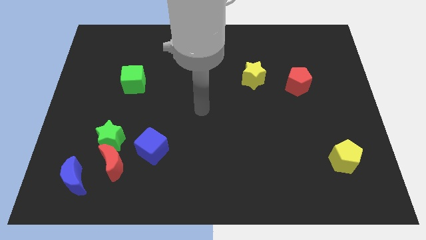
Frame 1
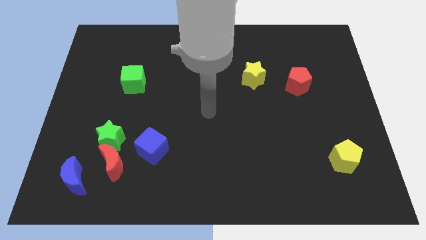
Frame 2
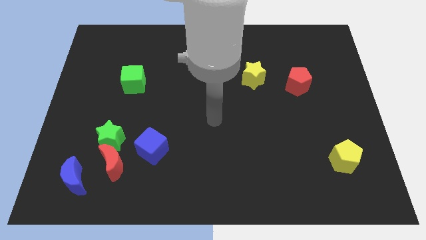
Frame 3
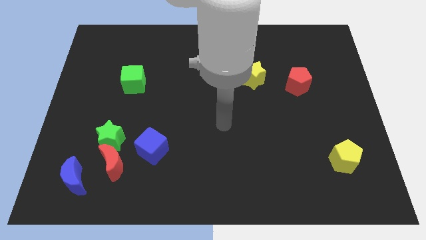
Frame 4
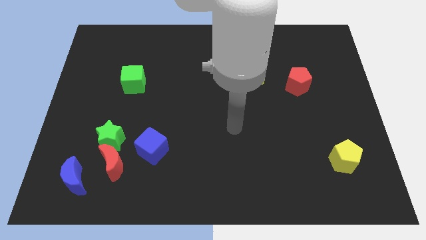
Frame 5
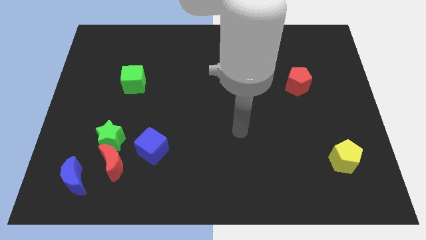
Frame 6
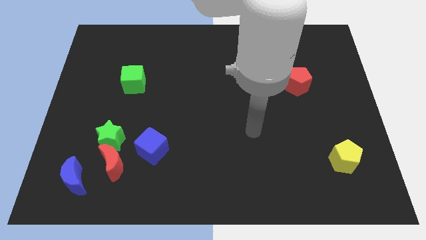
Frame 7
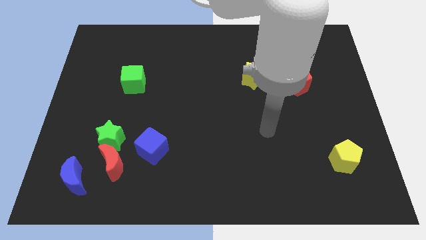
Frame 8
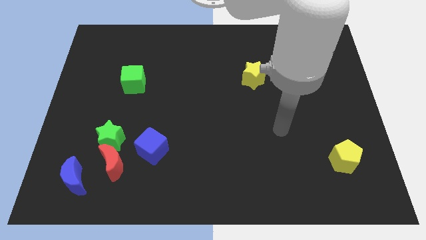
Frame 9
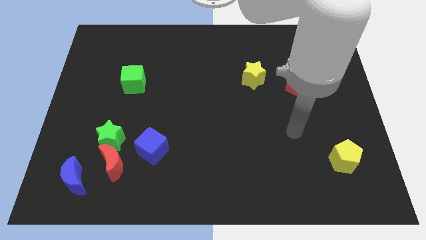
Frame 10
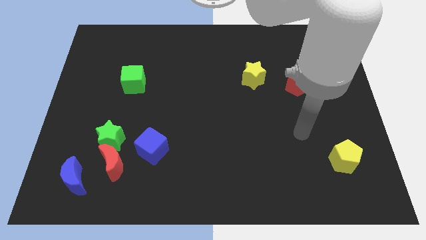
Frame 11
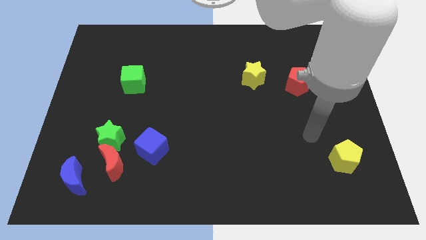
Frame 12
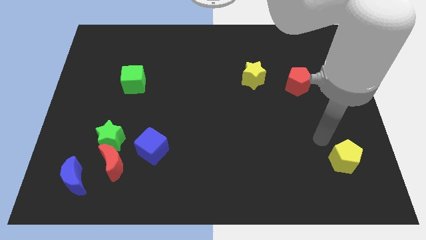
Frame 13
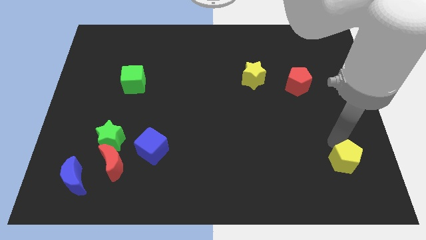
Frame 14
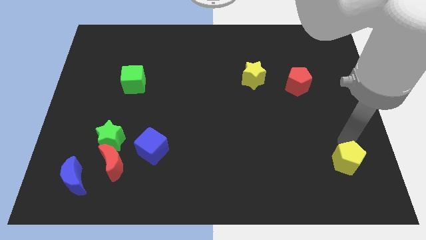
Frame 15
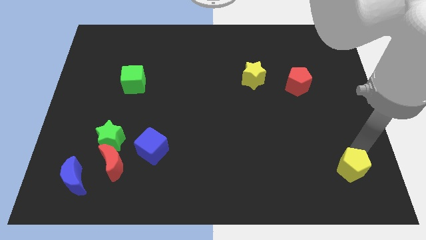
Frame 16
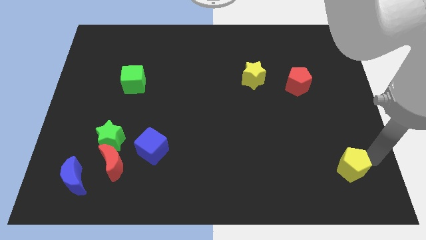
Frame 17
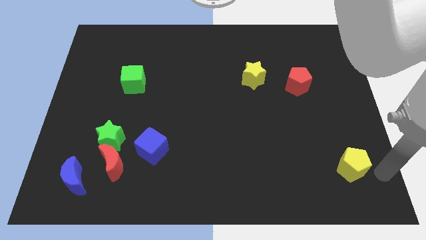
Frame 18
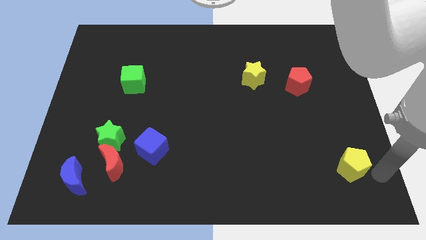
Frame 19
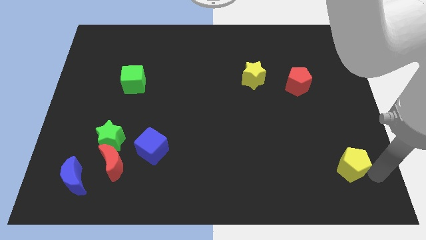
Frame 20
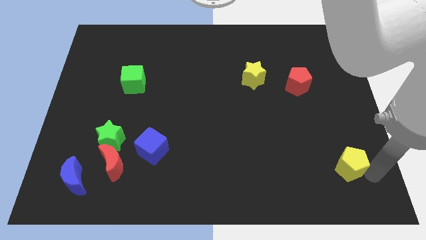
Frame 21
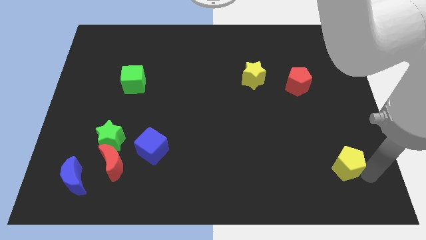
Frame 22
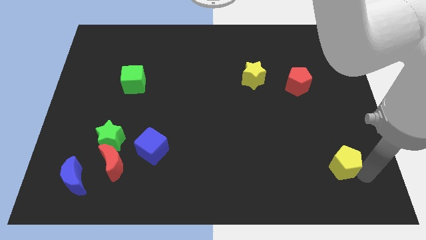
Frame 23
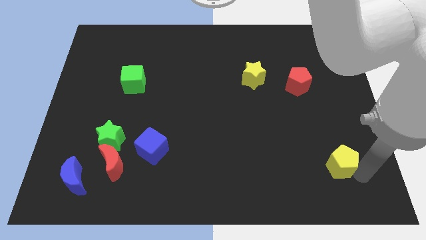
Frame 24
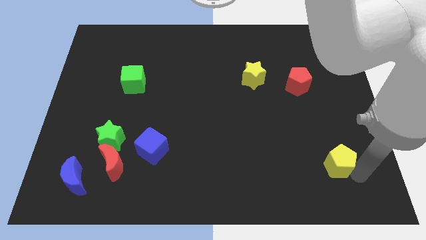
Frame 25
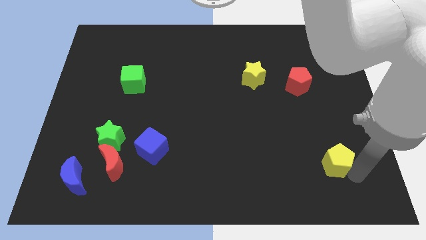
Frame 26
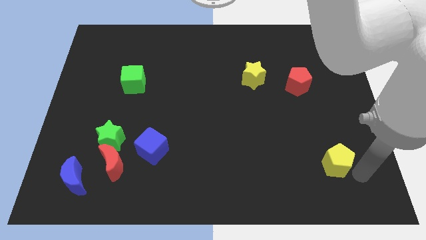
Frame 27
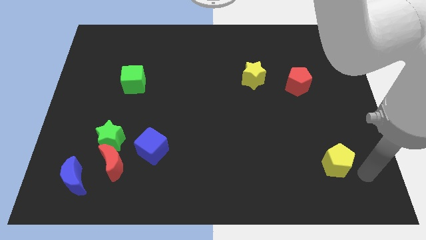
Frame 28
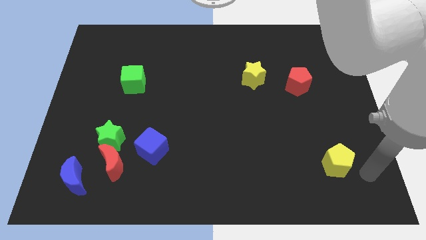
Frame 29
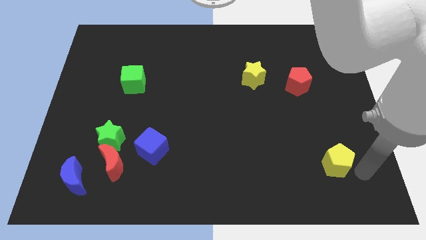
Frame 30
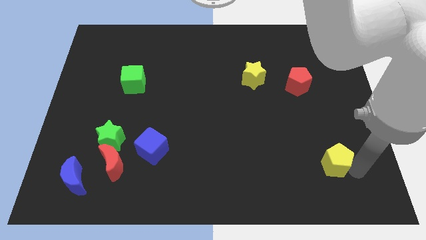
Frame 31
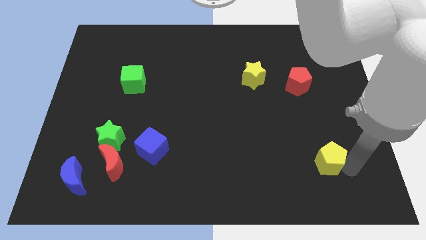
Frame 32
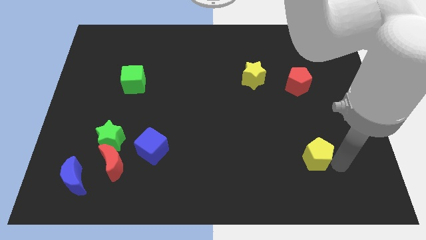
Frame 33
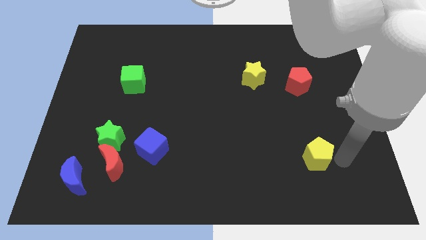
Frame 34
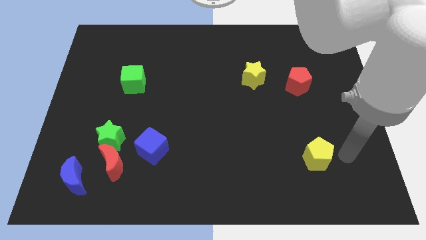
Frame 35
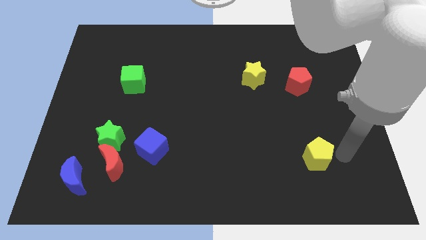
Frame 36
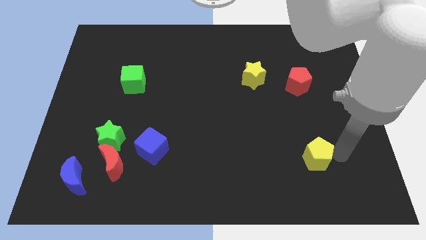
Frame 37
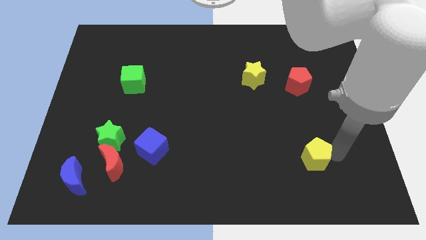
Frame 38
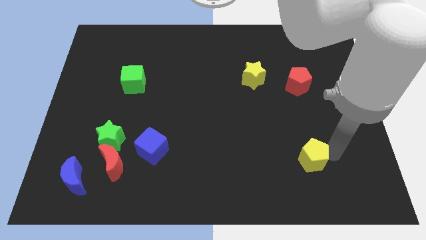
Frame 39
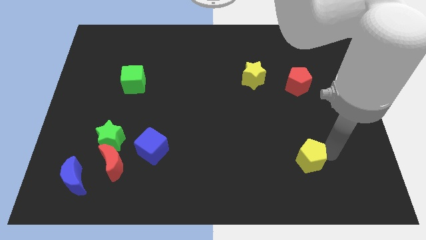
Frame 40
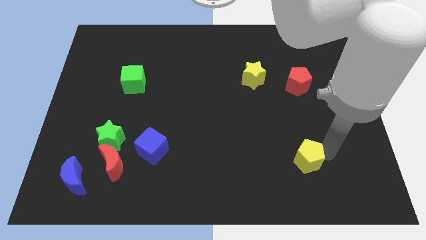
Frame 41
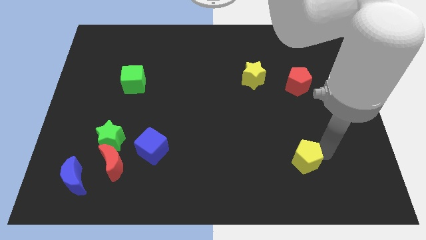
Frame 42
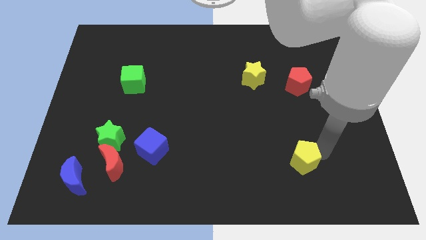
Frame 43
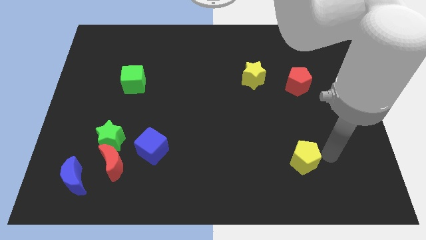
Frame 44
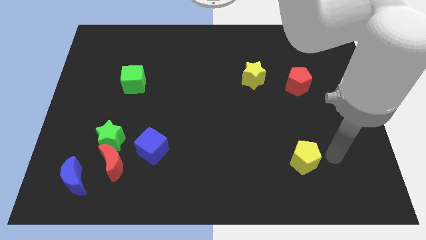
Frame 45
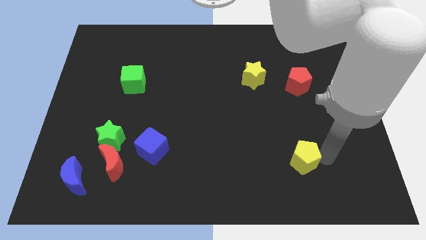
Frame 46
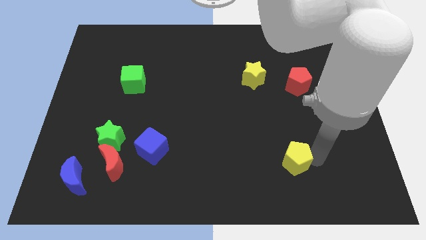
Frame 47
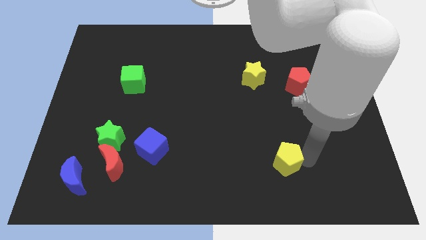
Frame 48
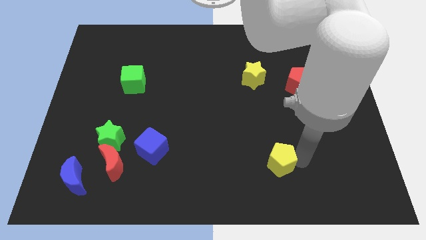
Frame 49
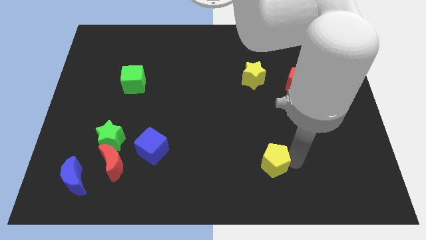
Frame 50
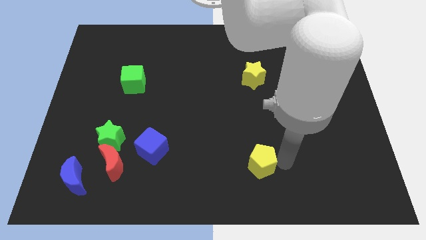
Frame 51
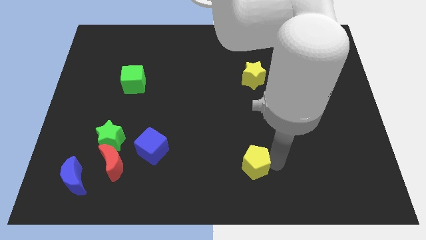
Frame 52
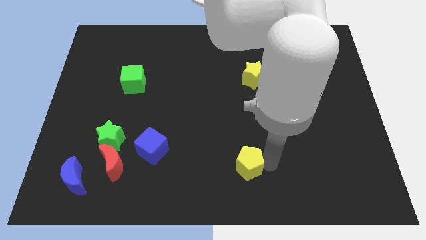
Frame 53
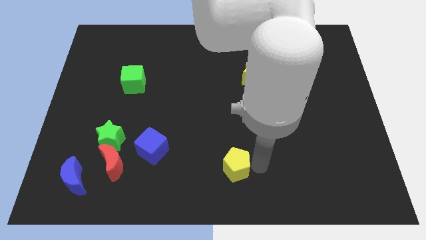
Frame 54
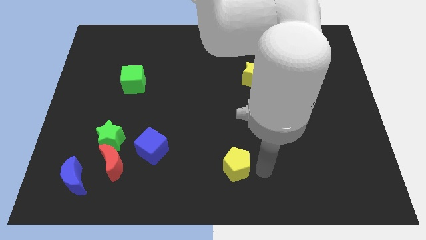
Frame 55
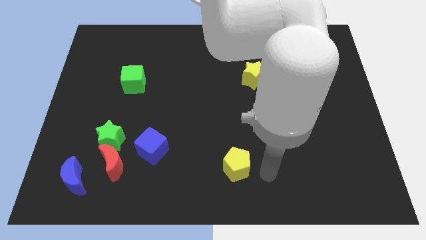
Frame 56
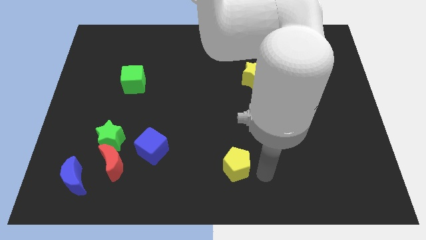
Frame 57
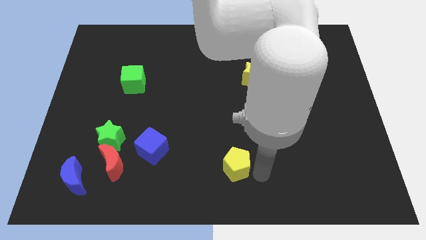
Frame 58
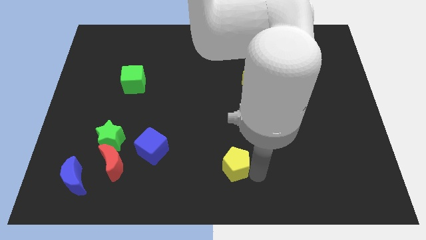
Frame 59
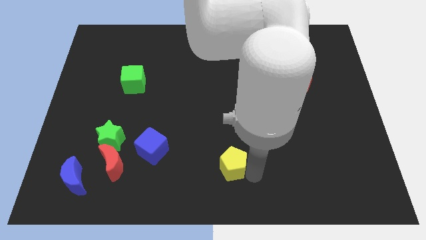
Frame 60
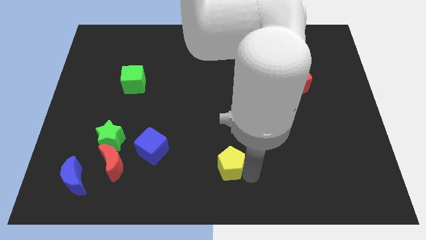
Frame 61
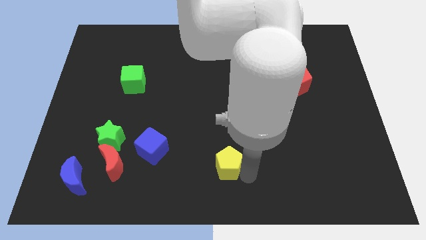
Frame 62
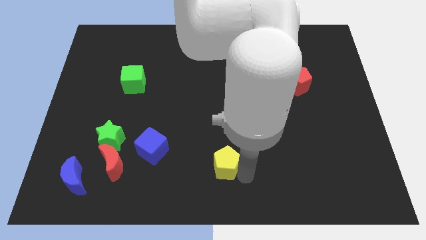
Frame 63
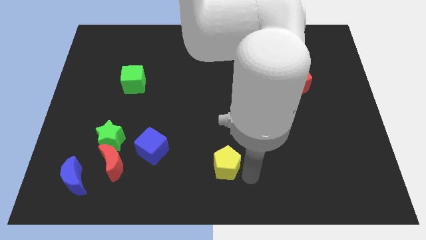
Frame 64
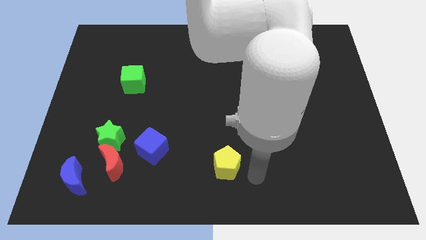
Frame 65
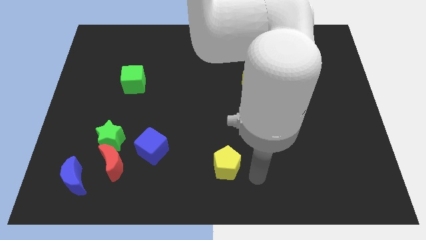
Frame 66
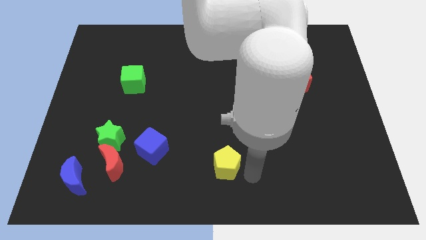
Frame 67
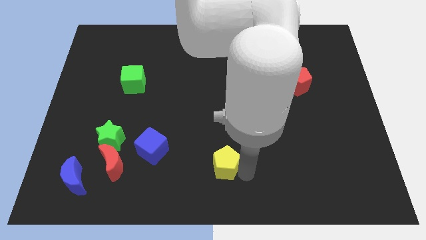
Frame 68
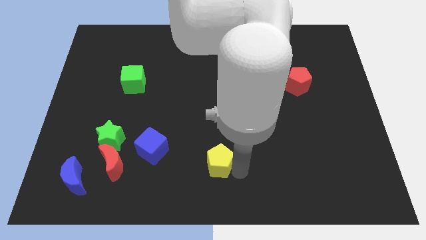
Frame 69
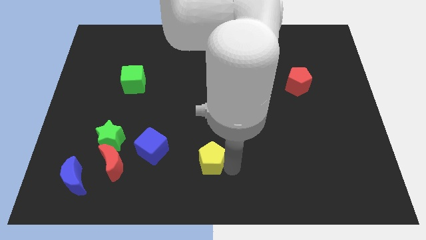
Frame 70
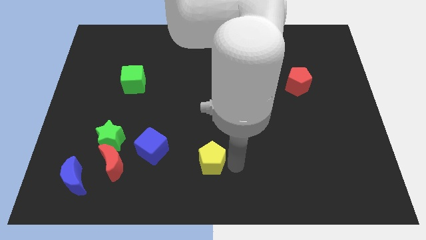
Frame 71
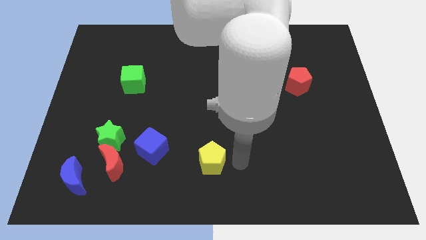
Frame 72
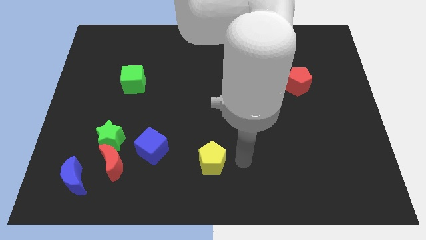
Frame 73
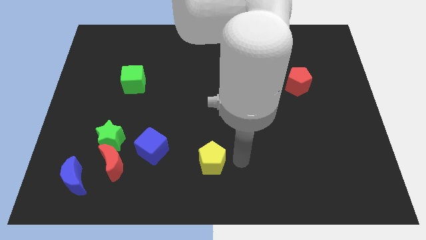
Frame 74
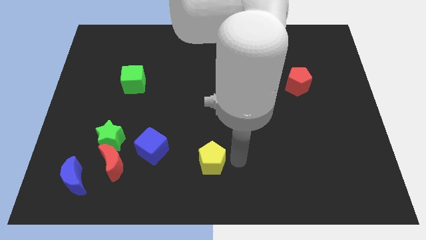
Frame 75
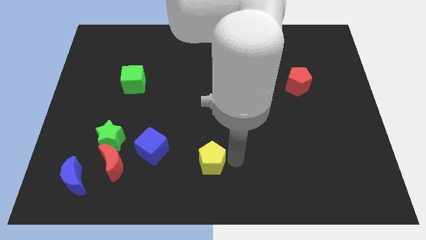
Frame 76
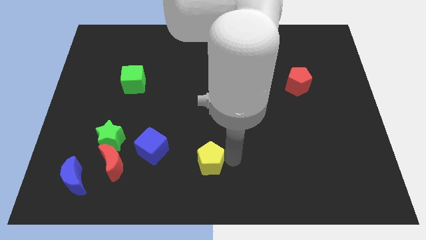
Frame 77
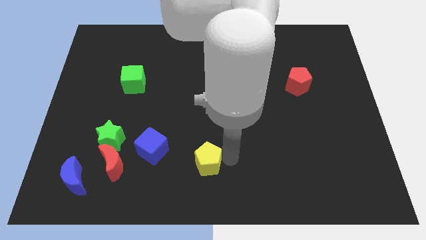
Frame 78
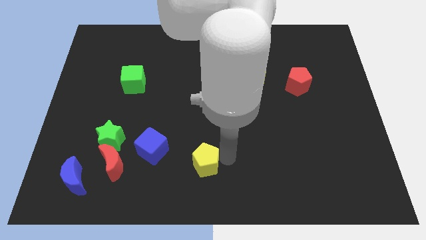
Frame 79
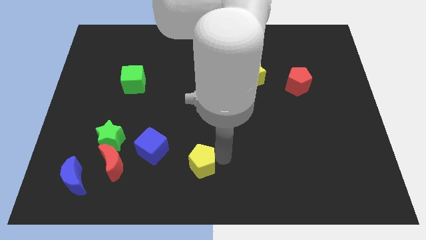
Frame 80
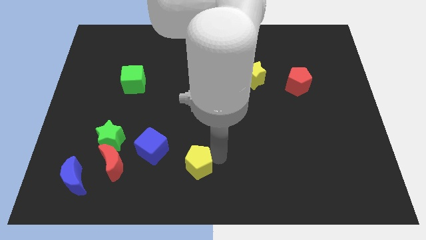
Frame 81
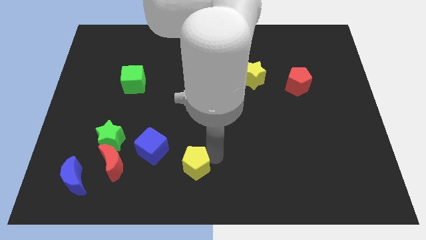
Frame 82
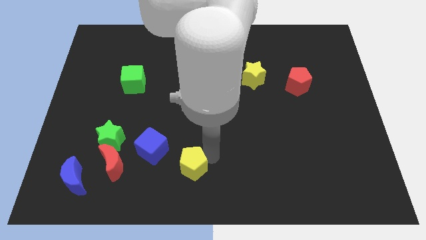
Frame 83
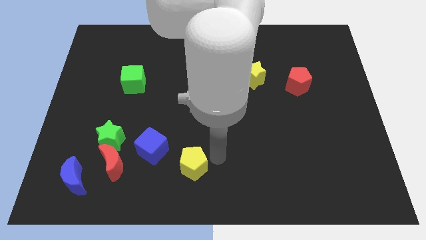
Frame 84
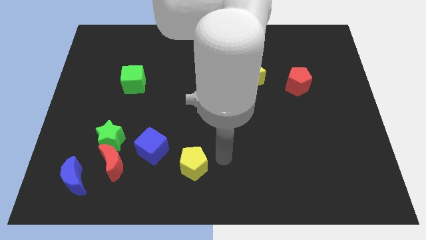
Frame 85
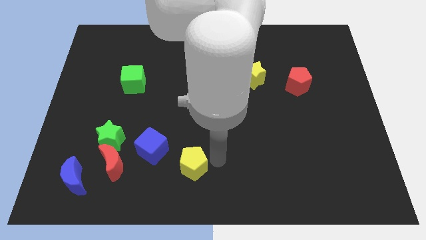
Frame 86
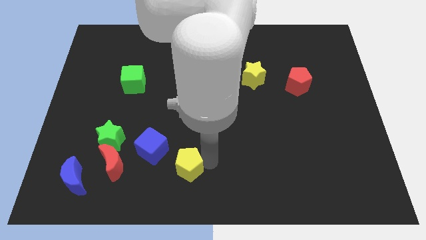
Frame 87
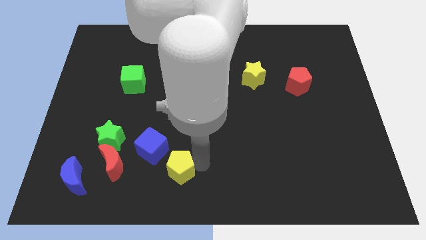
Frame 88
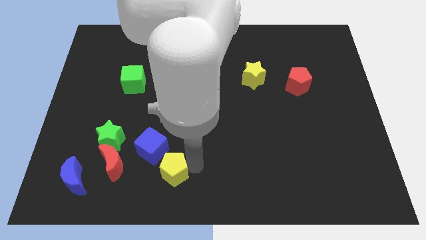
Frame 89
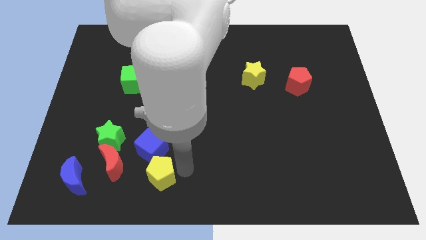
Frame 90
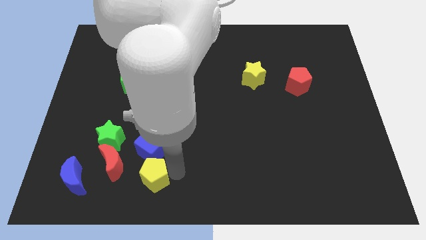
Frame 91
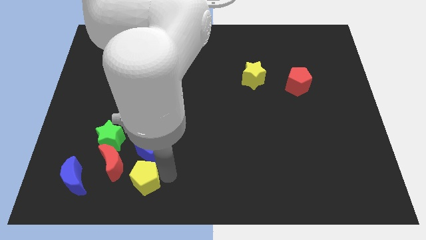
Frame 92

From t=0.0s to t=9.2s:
slide the yellow pentagon just right of the blue moon
